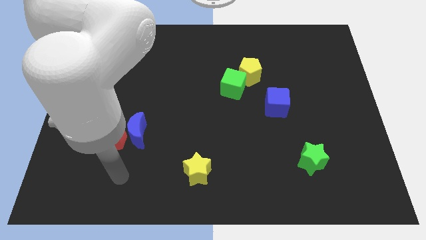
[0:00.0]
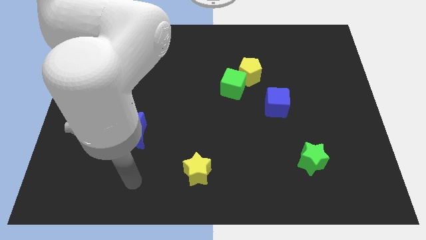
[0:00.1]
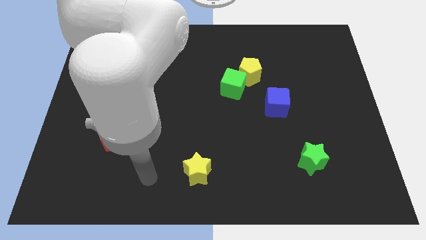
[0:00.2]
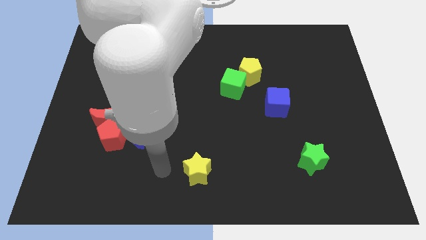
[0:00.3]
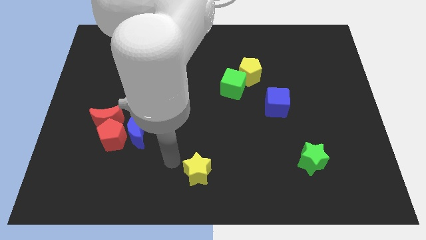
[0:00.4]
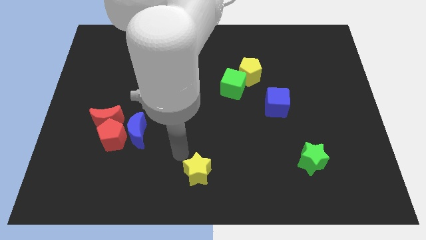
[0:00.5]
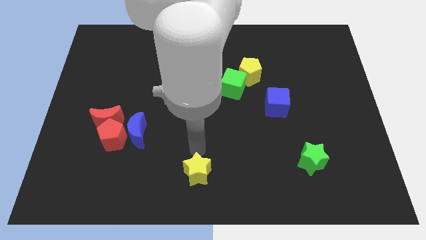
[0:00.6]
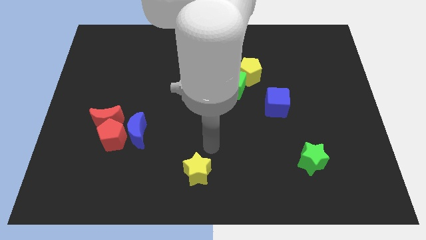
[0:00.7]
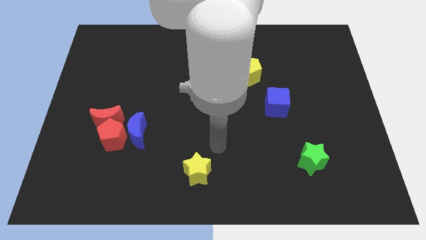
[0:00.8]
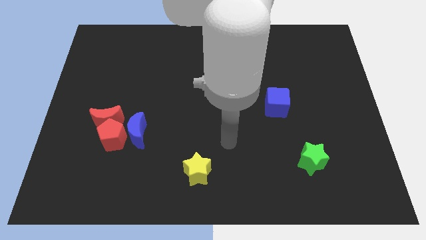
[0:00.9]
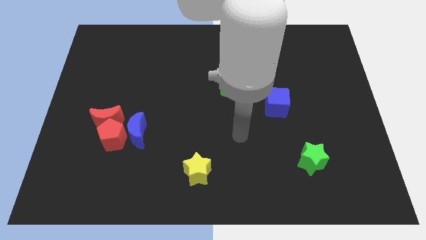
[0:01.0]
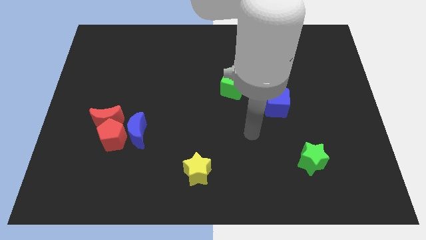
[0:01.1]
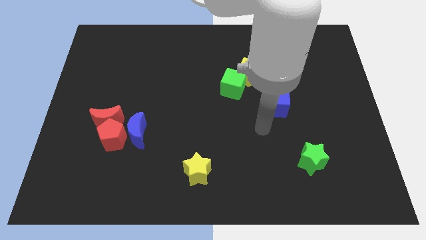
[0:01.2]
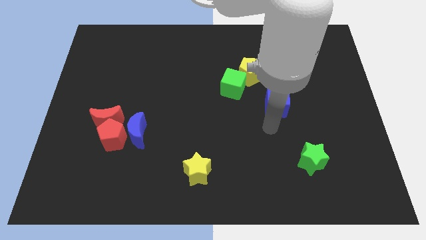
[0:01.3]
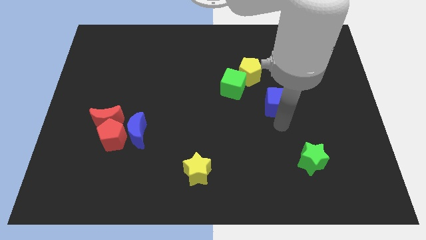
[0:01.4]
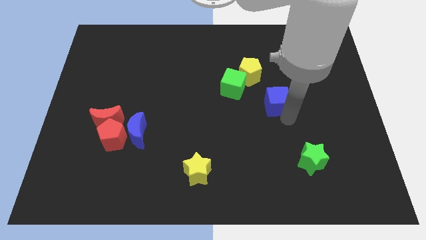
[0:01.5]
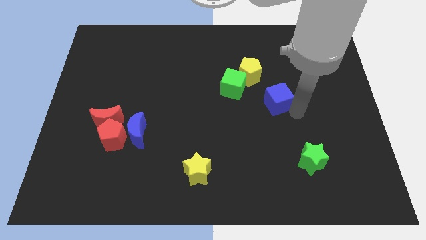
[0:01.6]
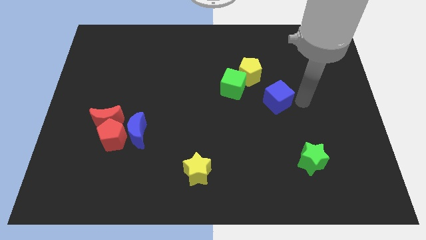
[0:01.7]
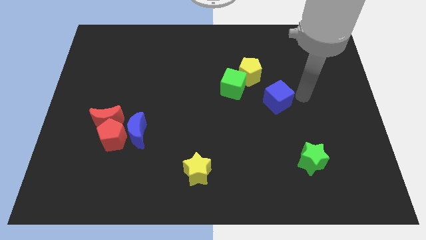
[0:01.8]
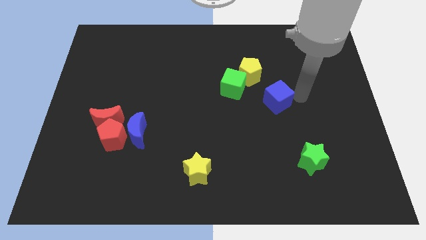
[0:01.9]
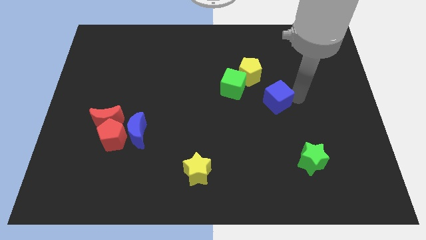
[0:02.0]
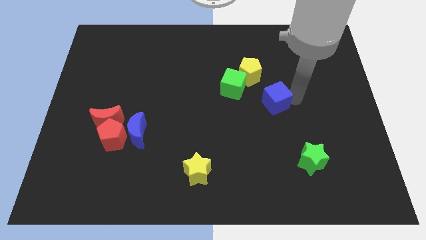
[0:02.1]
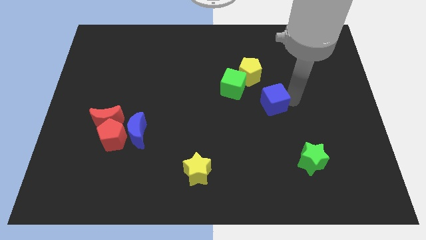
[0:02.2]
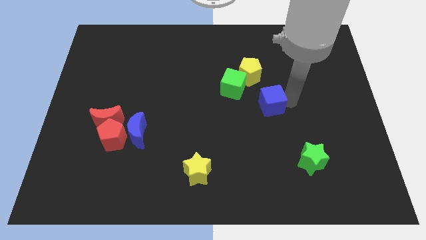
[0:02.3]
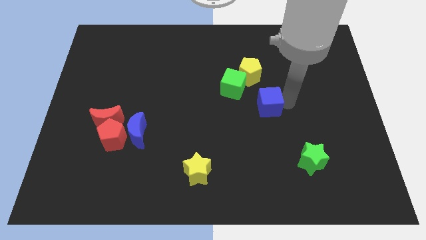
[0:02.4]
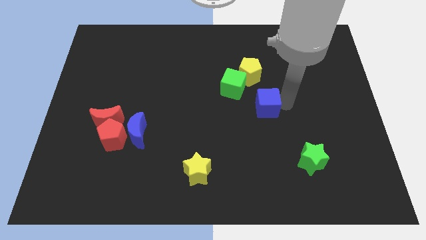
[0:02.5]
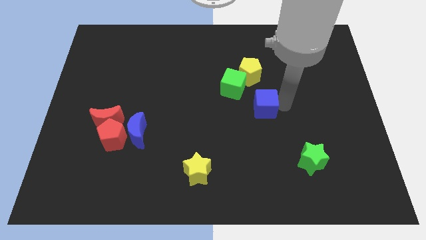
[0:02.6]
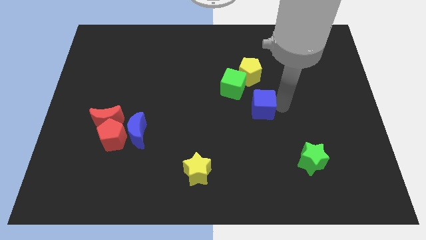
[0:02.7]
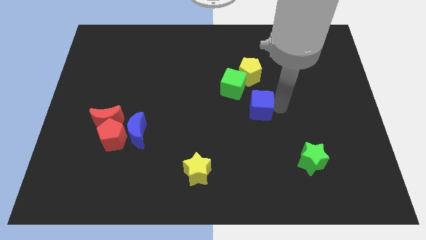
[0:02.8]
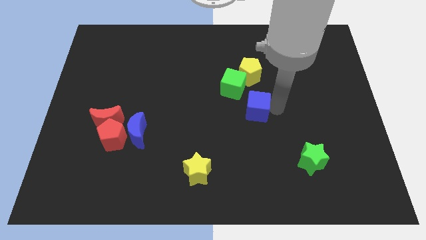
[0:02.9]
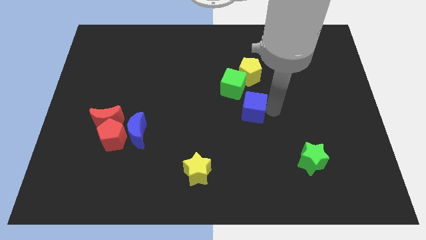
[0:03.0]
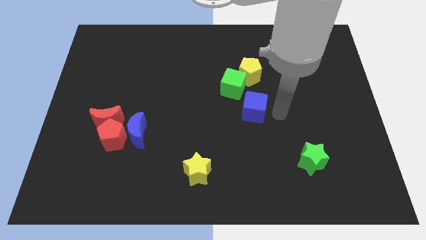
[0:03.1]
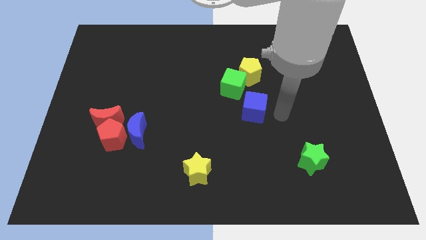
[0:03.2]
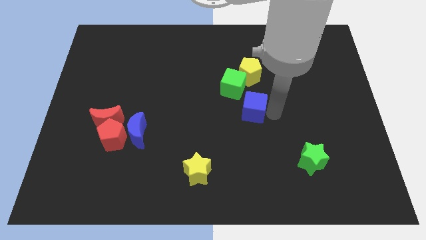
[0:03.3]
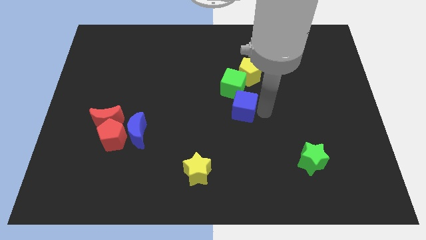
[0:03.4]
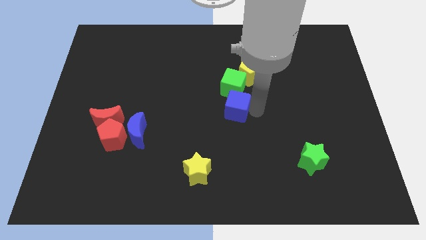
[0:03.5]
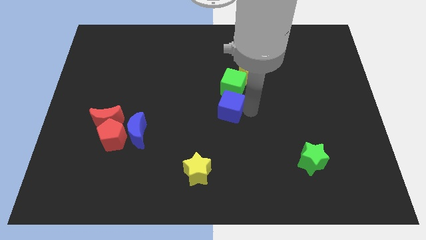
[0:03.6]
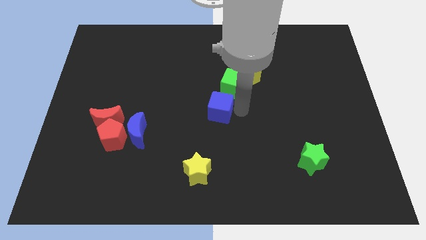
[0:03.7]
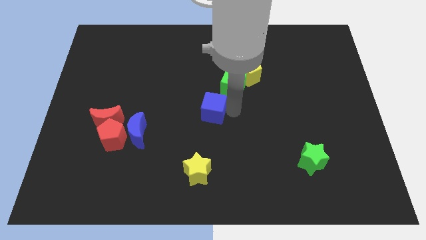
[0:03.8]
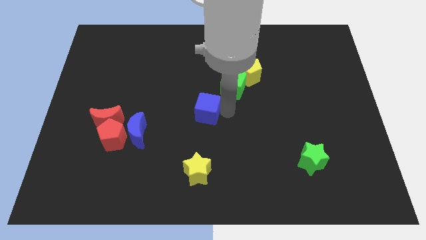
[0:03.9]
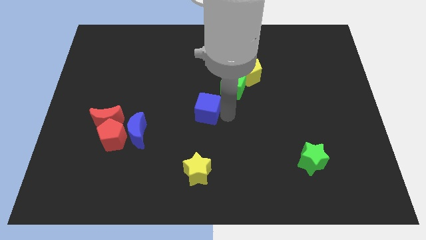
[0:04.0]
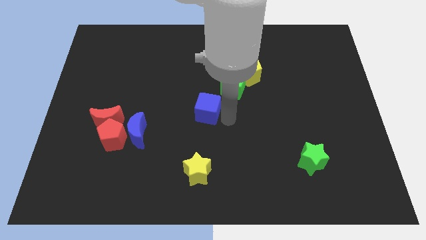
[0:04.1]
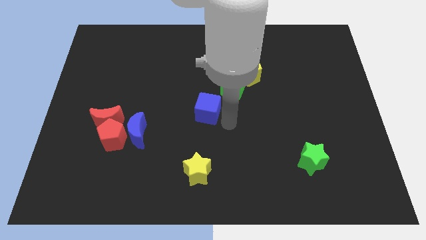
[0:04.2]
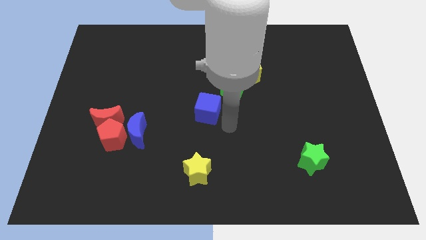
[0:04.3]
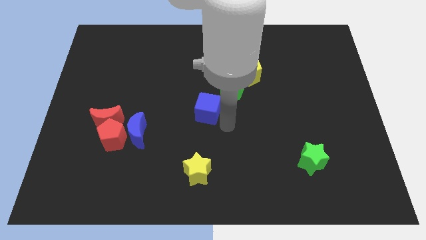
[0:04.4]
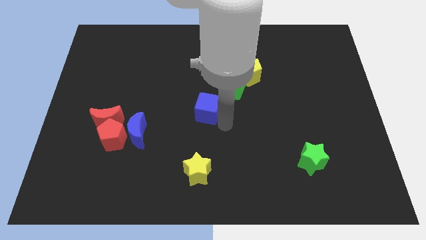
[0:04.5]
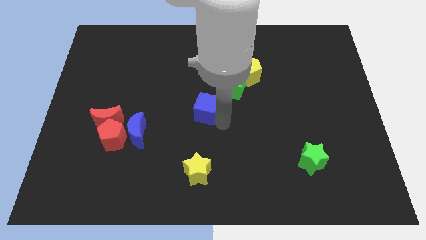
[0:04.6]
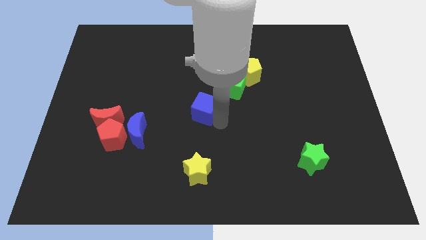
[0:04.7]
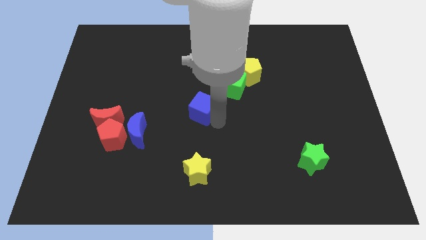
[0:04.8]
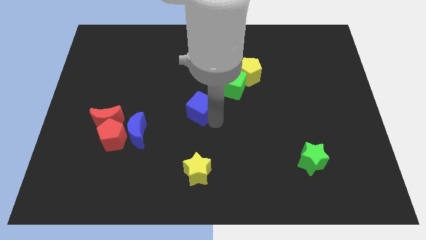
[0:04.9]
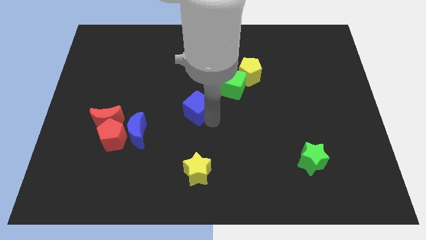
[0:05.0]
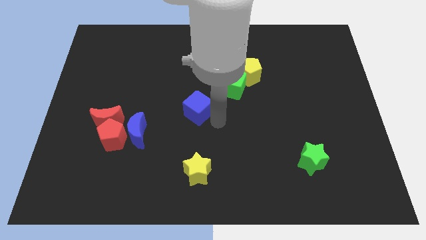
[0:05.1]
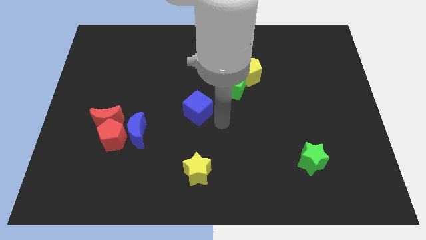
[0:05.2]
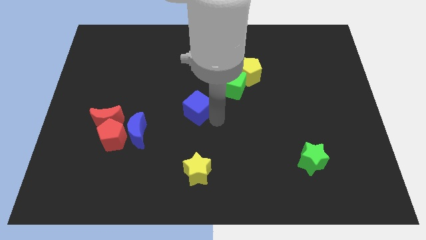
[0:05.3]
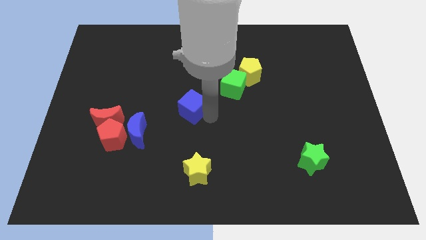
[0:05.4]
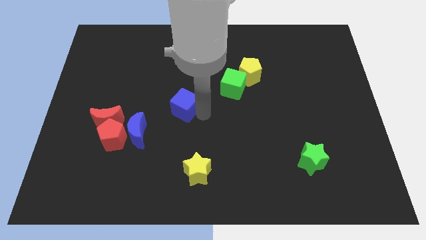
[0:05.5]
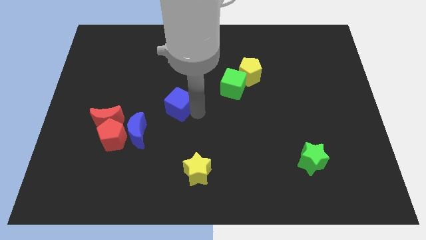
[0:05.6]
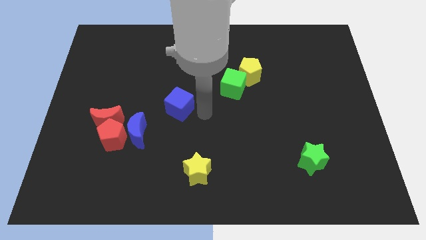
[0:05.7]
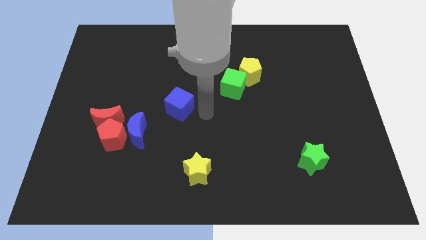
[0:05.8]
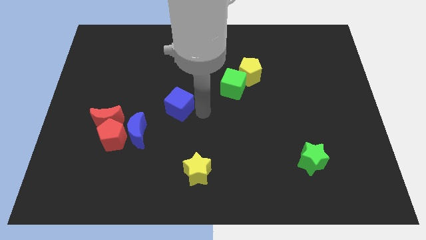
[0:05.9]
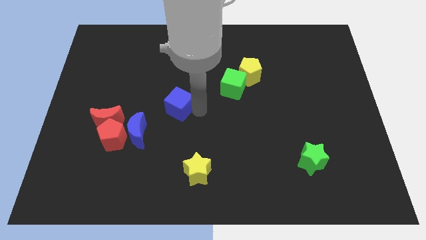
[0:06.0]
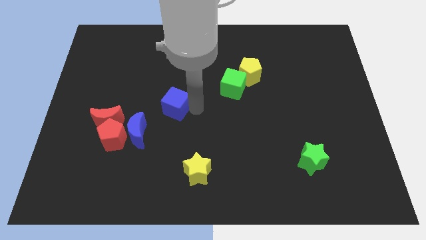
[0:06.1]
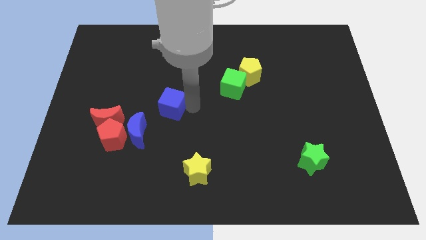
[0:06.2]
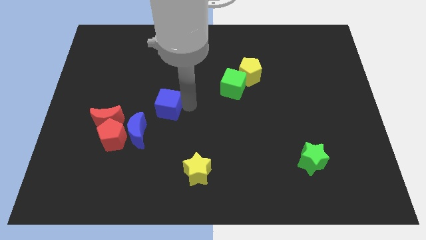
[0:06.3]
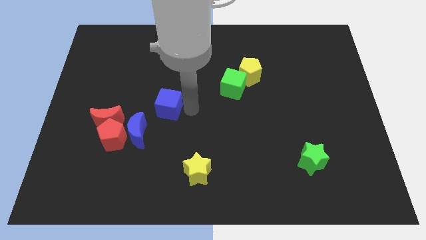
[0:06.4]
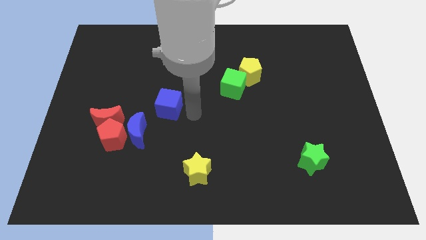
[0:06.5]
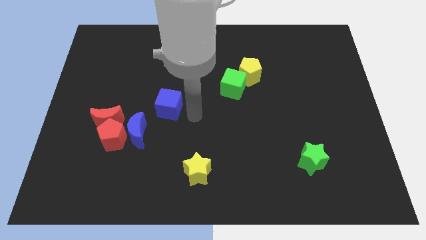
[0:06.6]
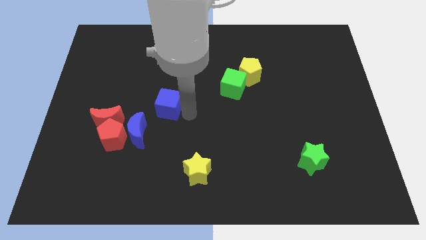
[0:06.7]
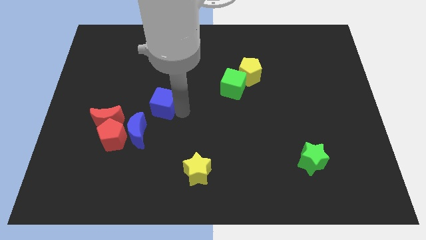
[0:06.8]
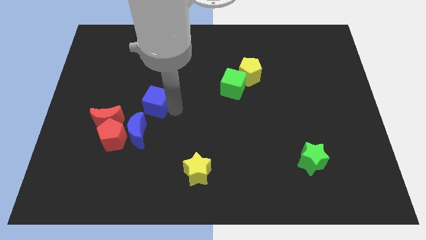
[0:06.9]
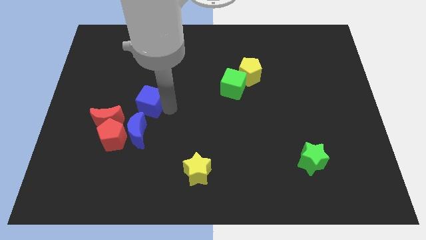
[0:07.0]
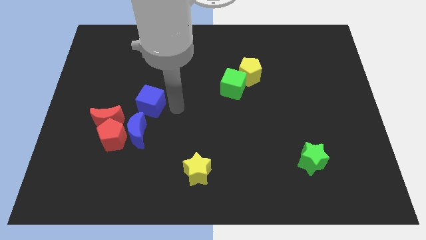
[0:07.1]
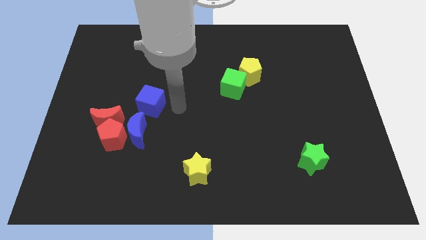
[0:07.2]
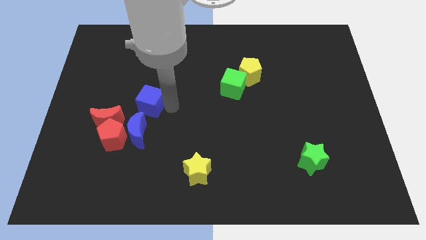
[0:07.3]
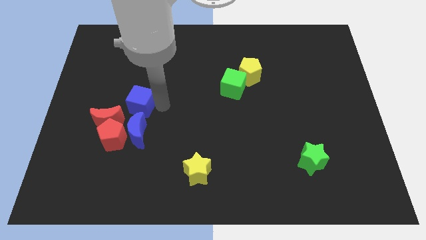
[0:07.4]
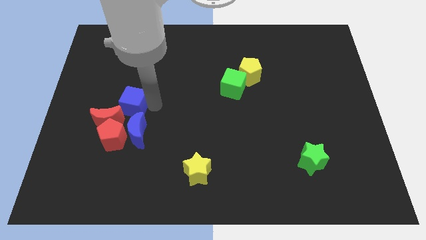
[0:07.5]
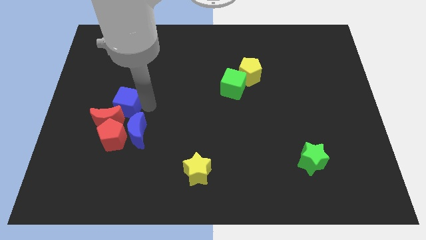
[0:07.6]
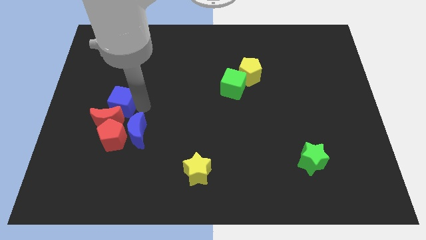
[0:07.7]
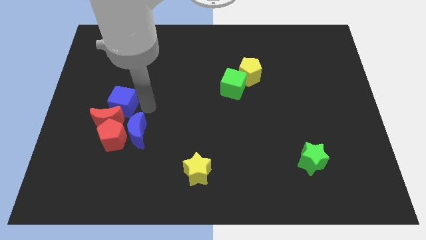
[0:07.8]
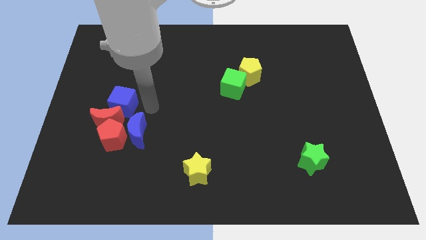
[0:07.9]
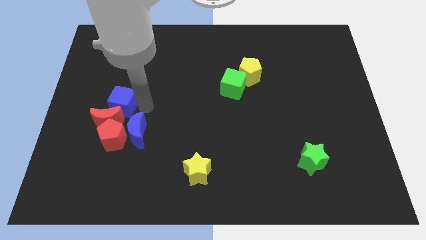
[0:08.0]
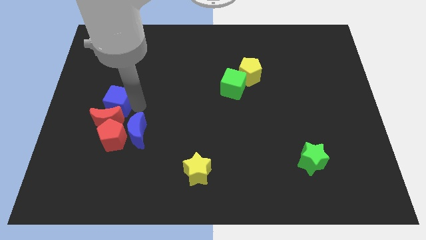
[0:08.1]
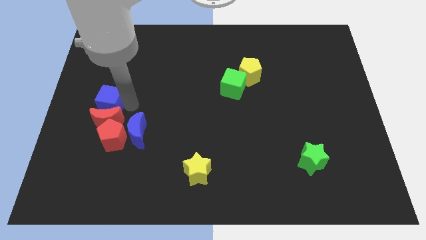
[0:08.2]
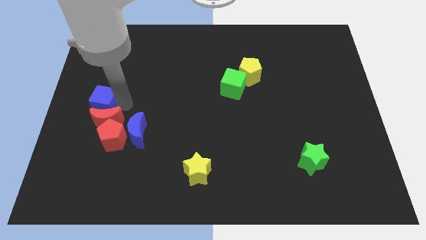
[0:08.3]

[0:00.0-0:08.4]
push the blue cube to the left side of the board
